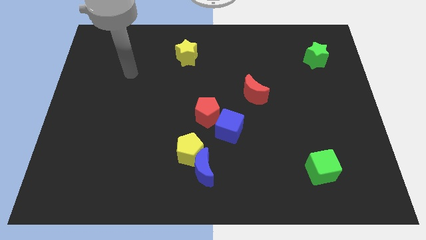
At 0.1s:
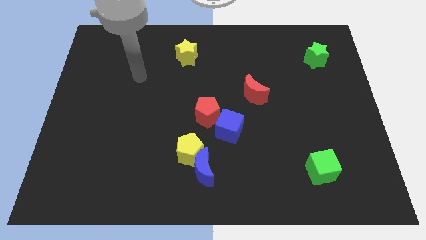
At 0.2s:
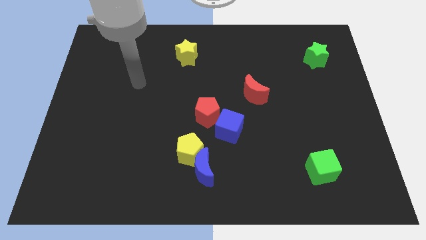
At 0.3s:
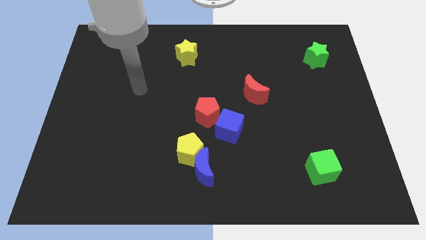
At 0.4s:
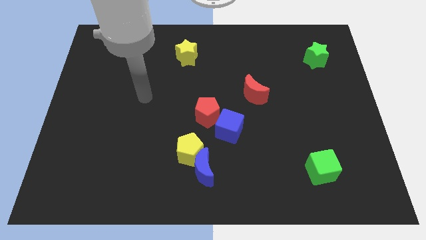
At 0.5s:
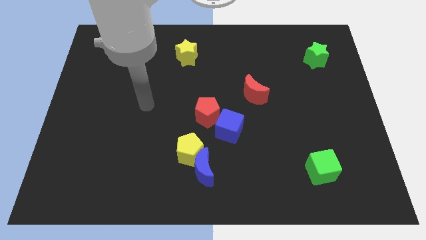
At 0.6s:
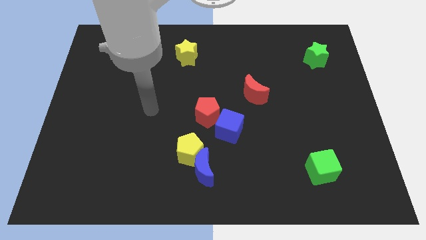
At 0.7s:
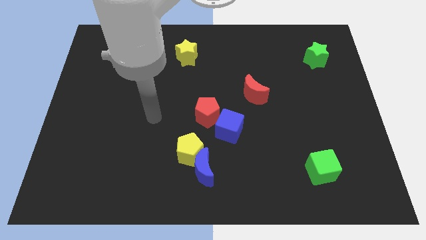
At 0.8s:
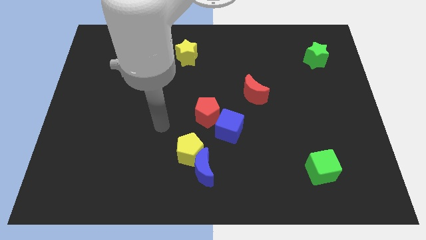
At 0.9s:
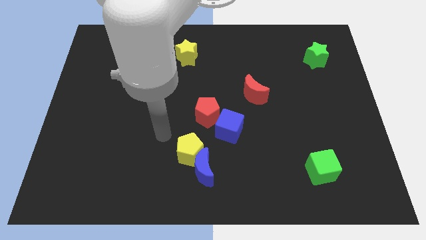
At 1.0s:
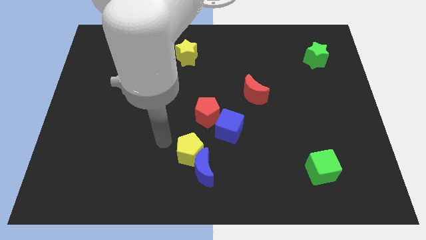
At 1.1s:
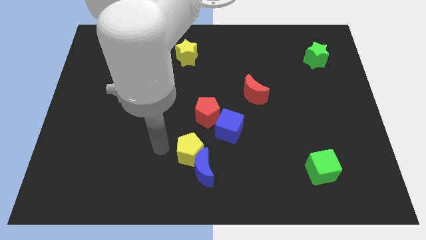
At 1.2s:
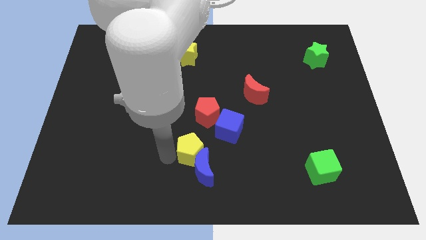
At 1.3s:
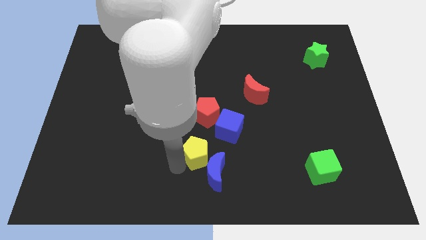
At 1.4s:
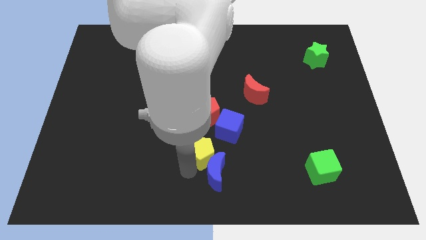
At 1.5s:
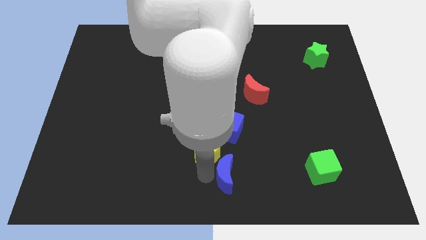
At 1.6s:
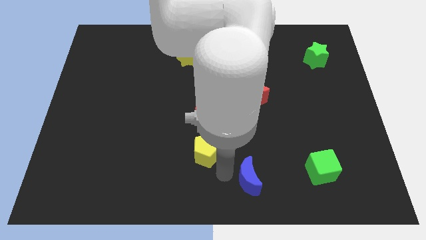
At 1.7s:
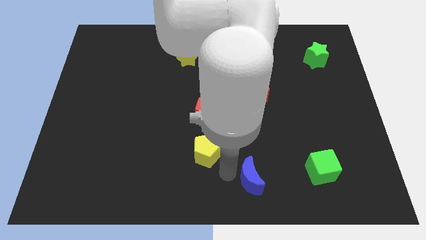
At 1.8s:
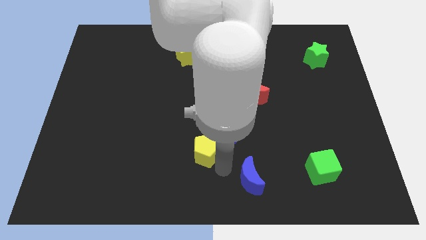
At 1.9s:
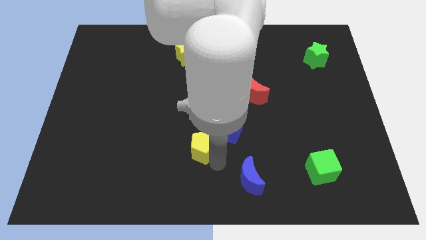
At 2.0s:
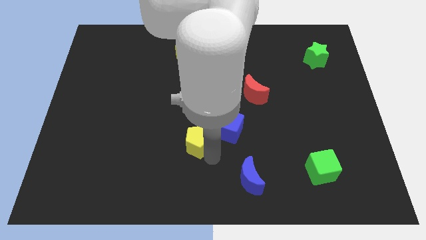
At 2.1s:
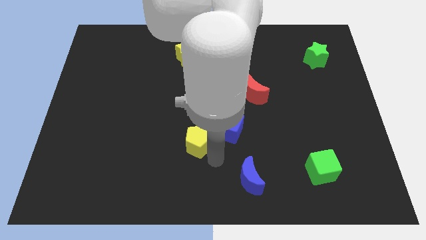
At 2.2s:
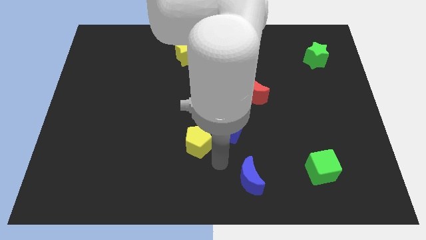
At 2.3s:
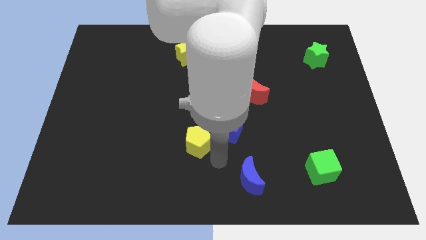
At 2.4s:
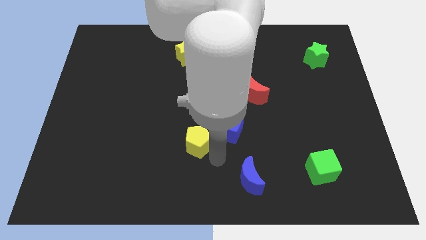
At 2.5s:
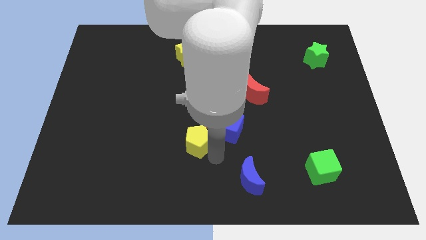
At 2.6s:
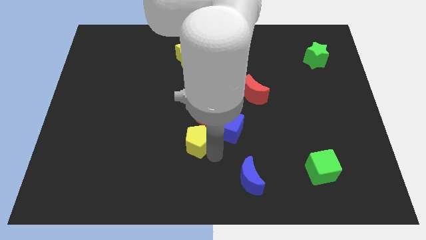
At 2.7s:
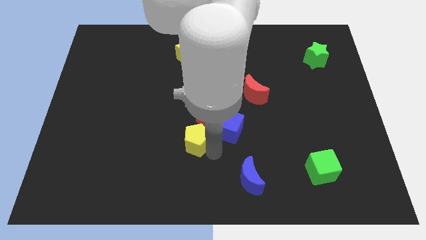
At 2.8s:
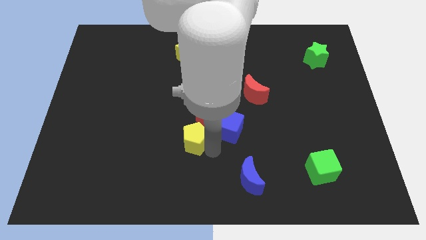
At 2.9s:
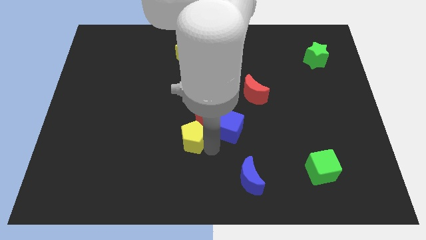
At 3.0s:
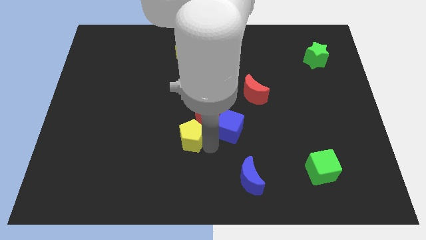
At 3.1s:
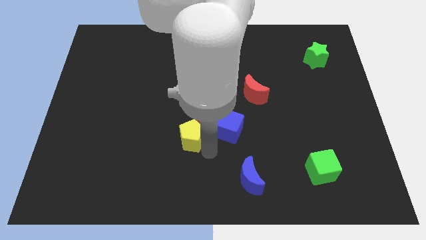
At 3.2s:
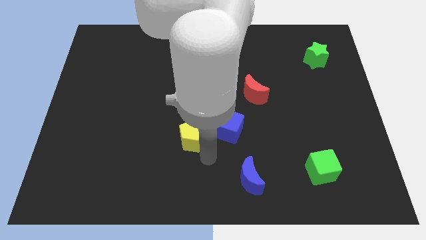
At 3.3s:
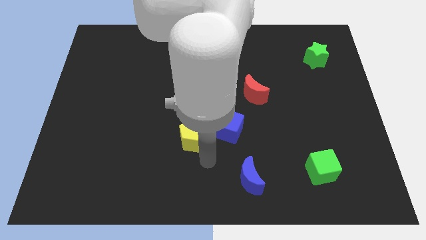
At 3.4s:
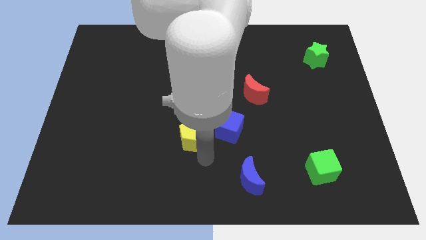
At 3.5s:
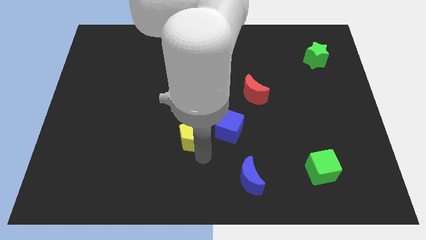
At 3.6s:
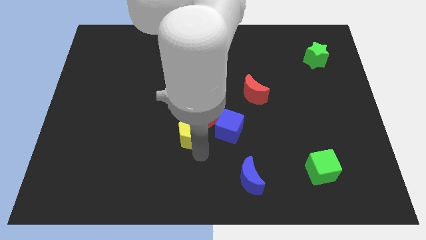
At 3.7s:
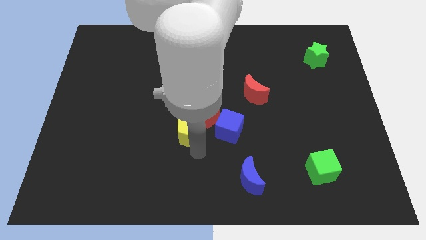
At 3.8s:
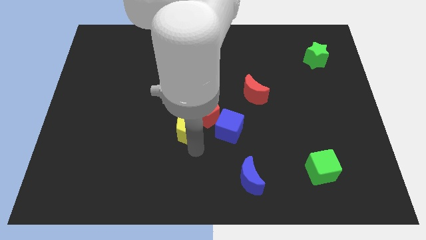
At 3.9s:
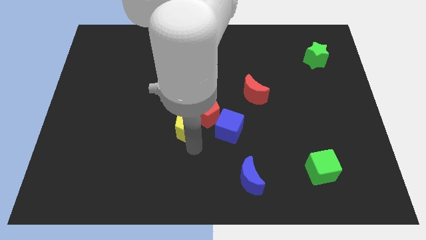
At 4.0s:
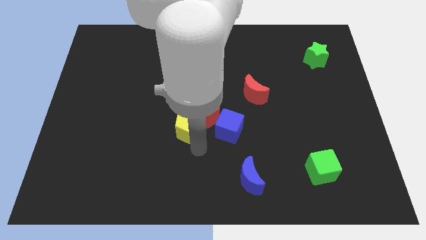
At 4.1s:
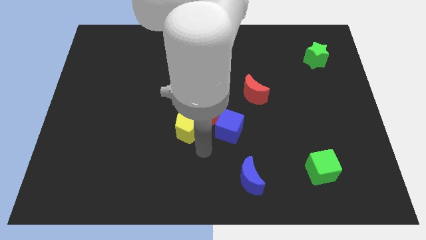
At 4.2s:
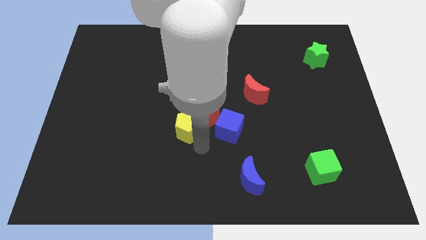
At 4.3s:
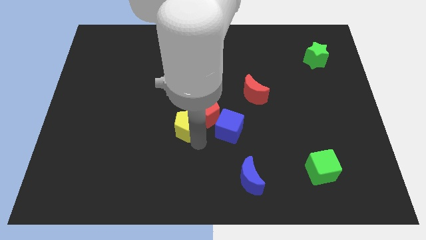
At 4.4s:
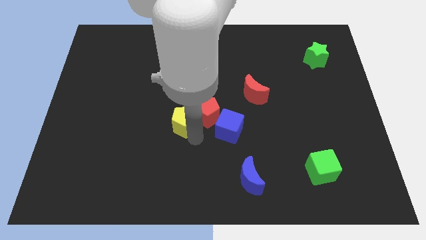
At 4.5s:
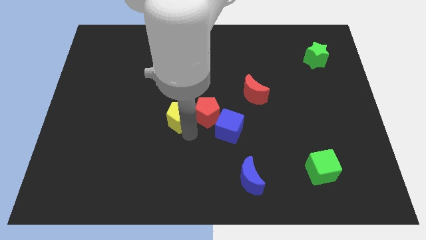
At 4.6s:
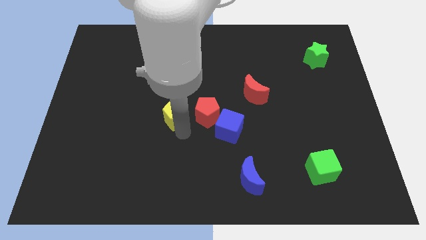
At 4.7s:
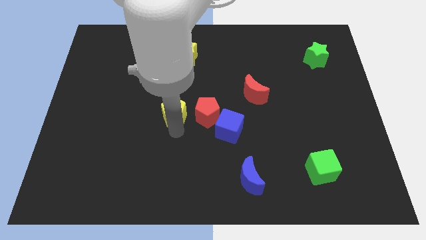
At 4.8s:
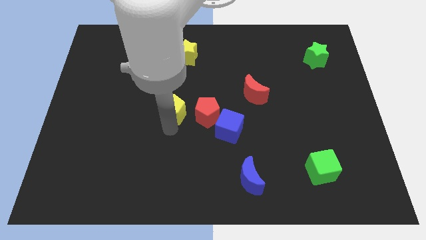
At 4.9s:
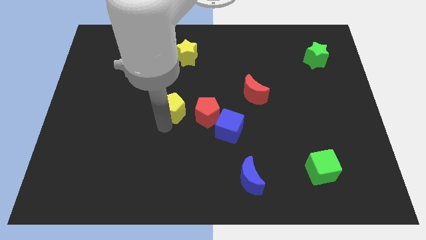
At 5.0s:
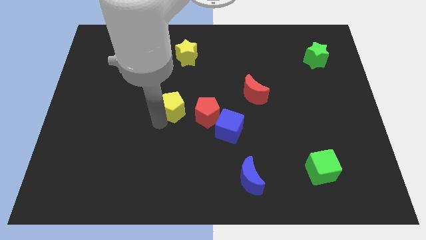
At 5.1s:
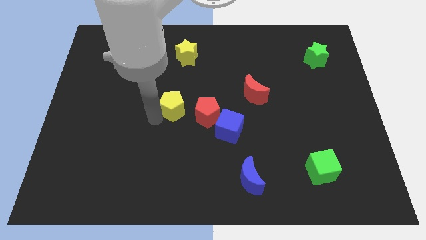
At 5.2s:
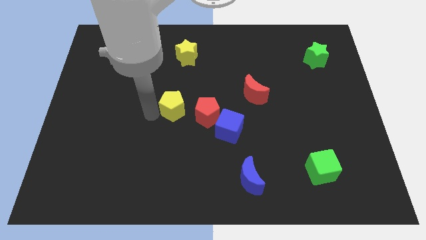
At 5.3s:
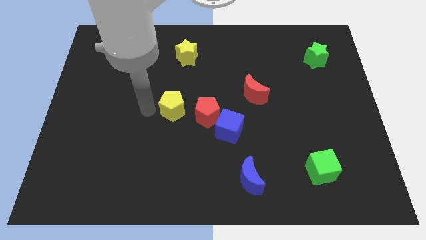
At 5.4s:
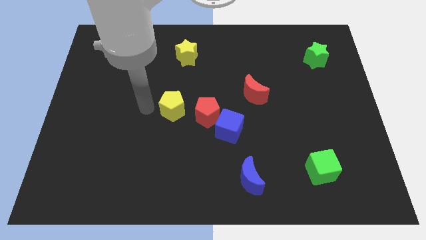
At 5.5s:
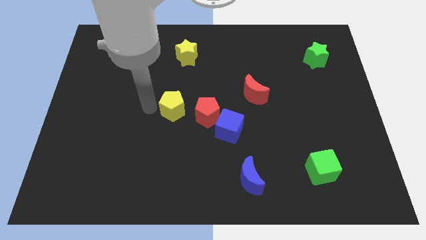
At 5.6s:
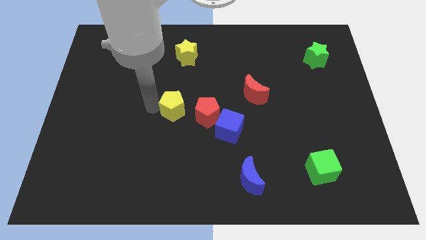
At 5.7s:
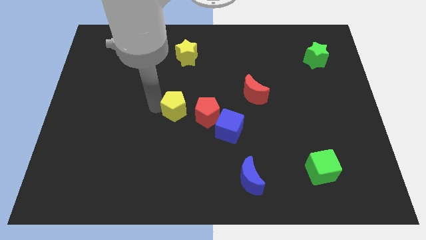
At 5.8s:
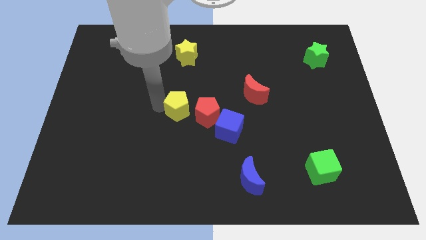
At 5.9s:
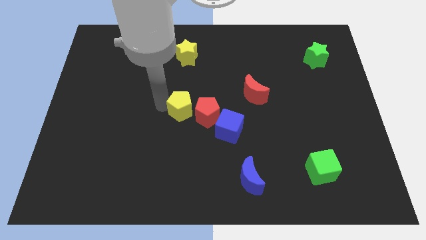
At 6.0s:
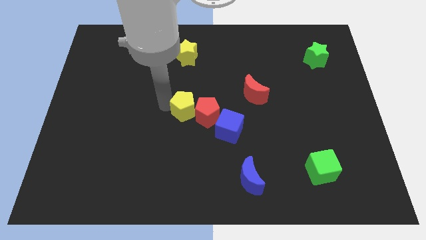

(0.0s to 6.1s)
slide the yellow pentagon diagonally up and to the left of the blue cube
